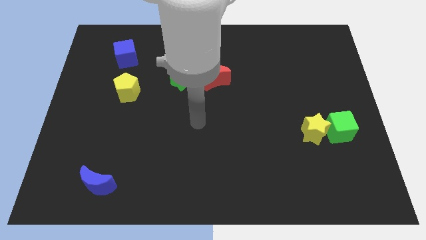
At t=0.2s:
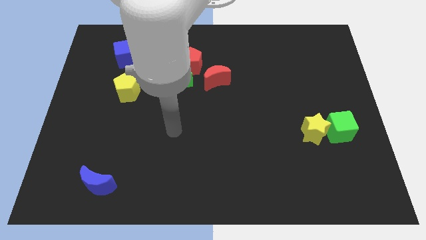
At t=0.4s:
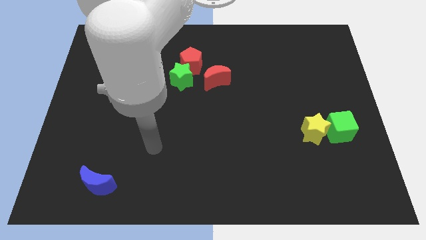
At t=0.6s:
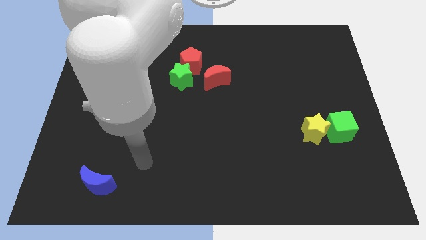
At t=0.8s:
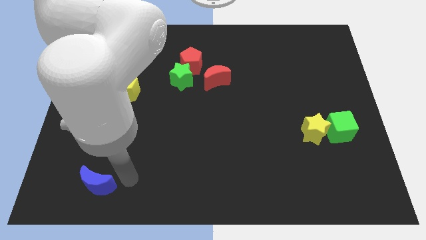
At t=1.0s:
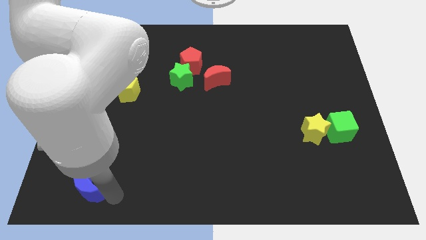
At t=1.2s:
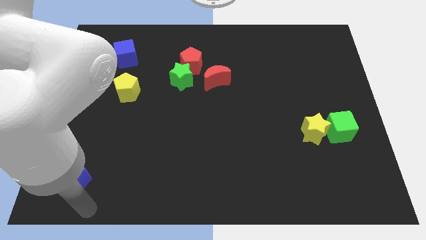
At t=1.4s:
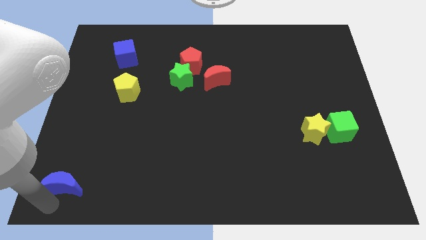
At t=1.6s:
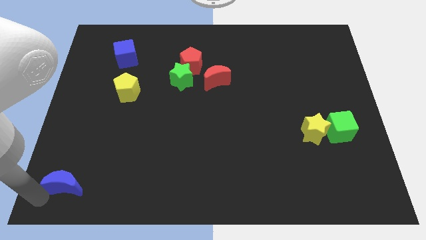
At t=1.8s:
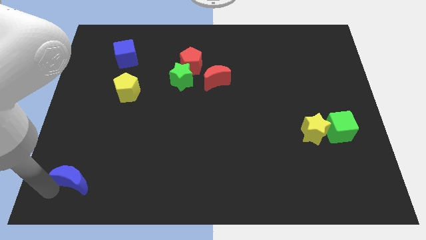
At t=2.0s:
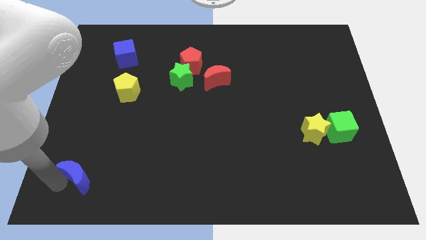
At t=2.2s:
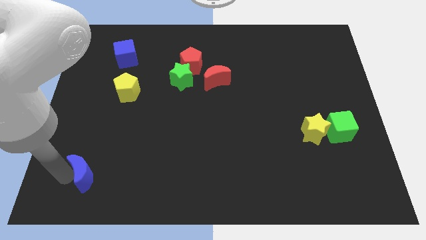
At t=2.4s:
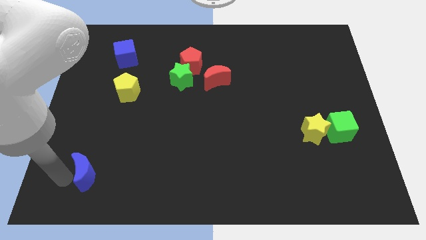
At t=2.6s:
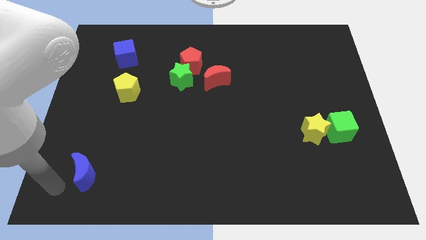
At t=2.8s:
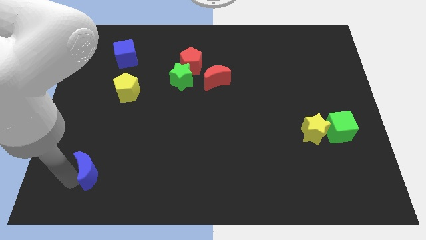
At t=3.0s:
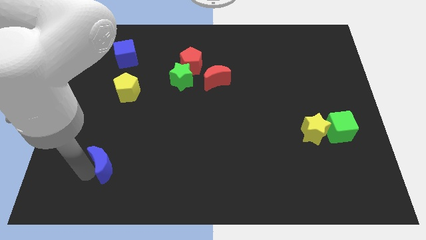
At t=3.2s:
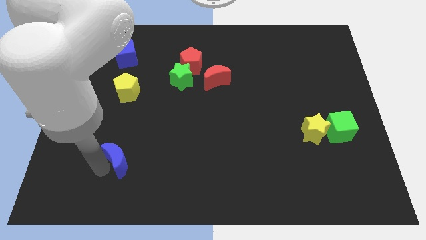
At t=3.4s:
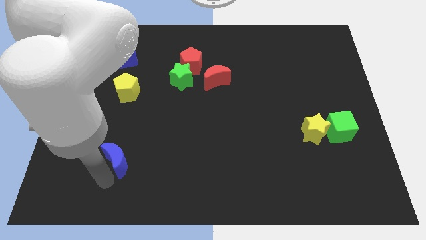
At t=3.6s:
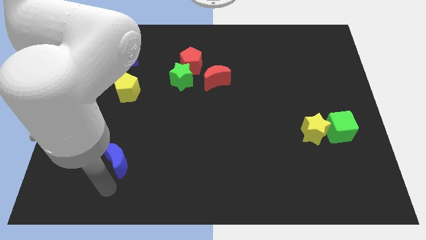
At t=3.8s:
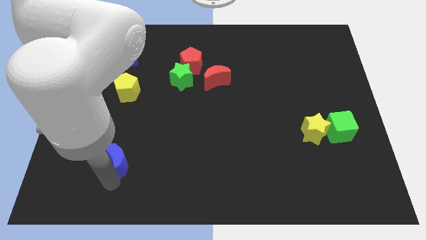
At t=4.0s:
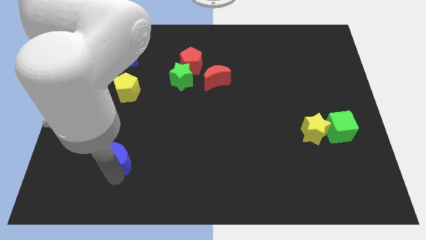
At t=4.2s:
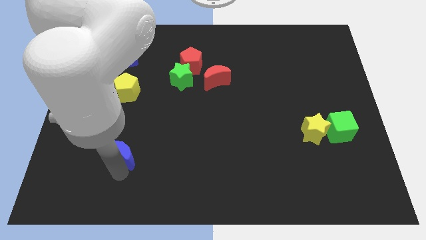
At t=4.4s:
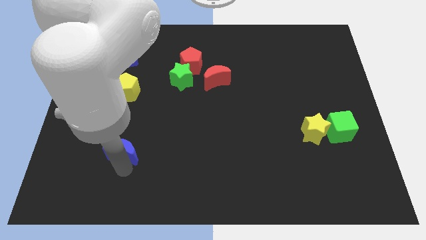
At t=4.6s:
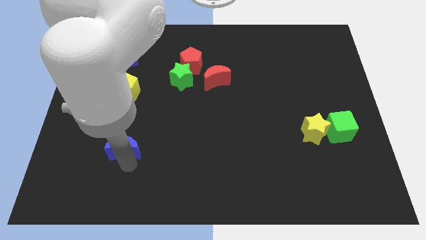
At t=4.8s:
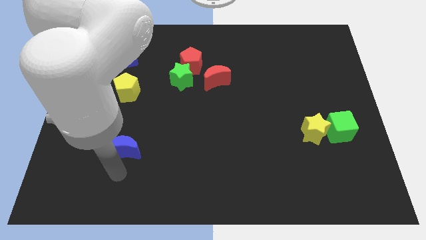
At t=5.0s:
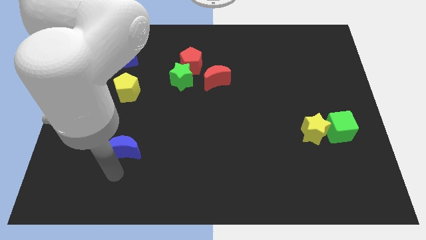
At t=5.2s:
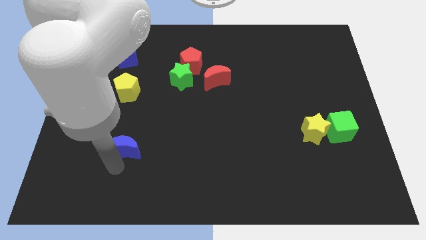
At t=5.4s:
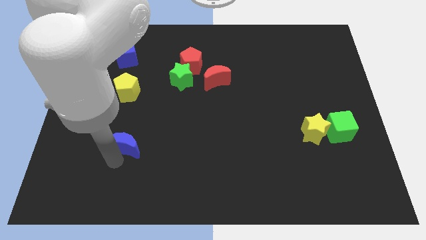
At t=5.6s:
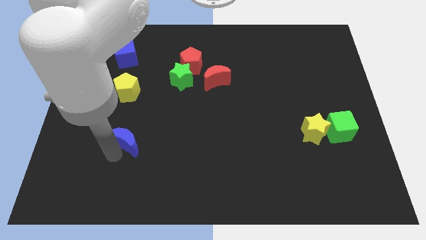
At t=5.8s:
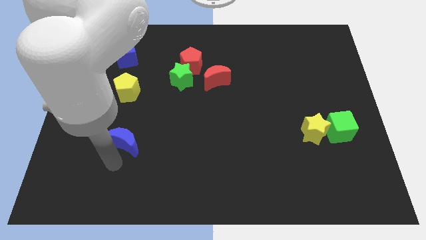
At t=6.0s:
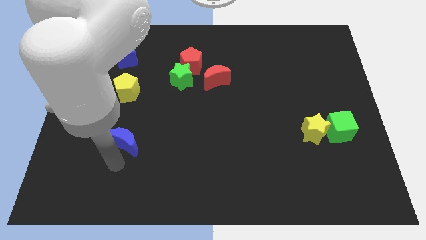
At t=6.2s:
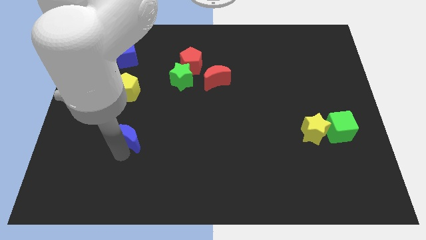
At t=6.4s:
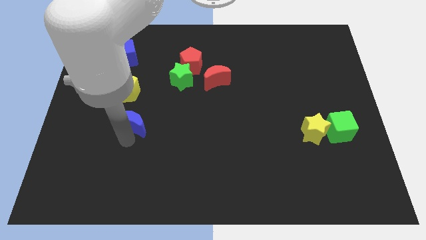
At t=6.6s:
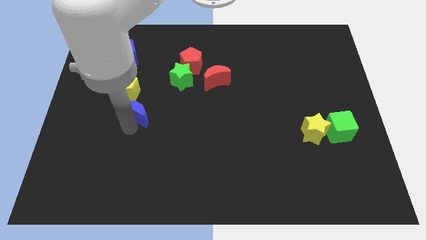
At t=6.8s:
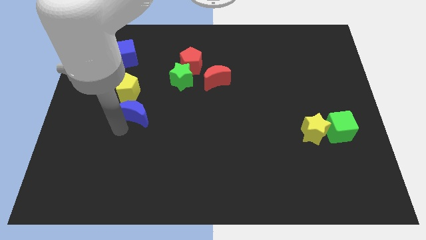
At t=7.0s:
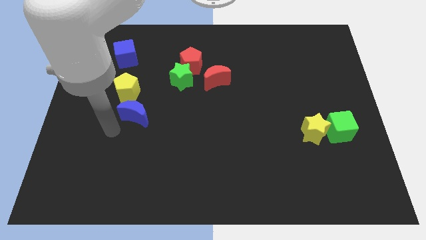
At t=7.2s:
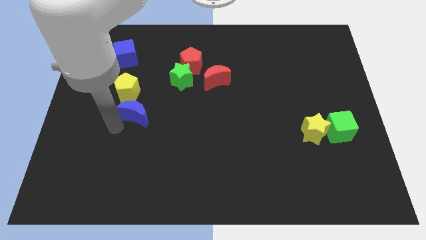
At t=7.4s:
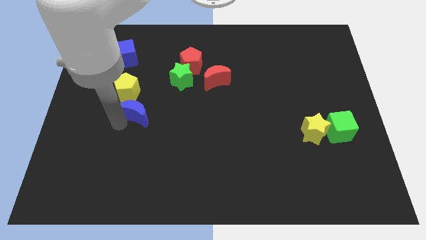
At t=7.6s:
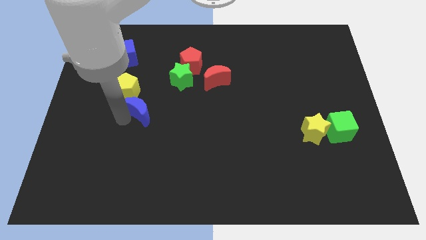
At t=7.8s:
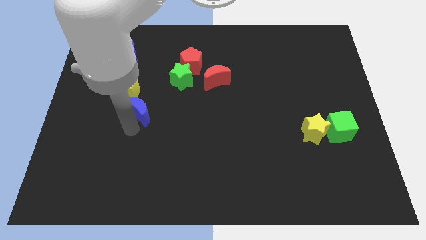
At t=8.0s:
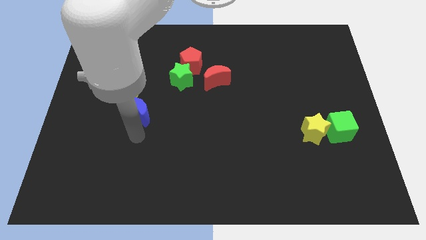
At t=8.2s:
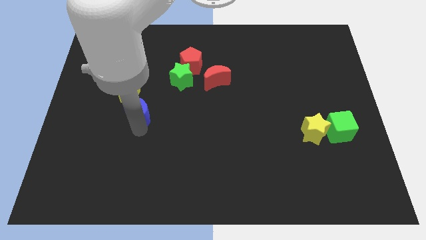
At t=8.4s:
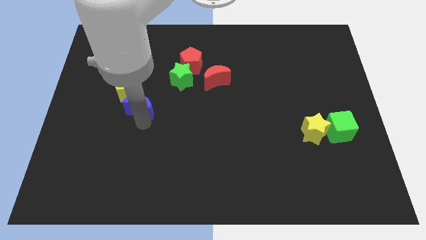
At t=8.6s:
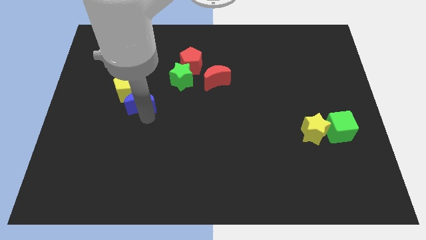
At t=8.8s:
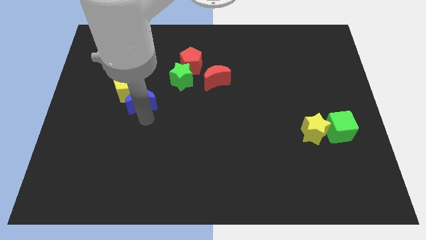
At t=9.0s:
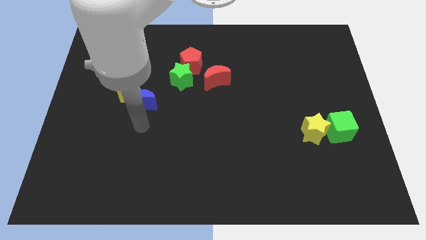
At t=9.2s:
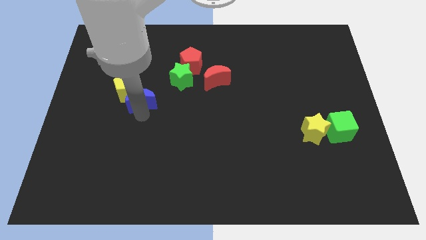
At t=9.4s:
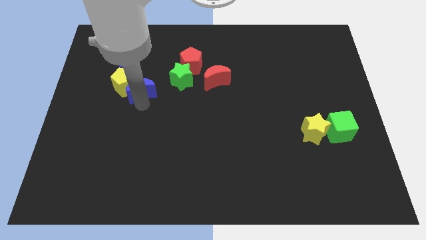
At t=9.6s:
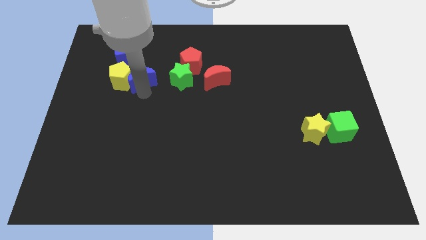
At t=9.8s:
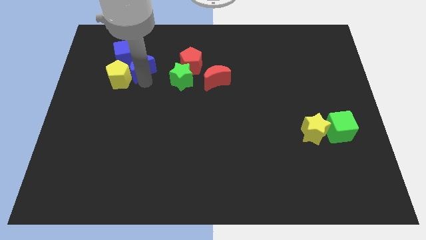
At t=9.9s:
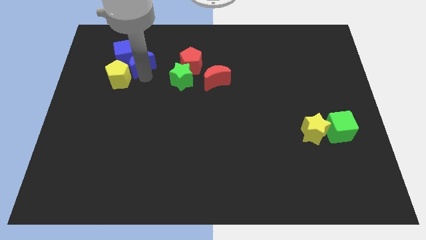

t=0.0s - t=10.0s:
put the blue moon close to the blue cube

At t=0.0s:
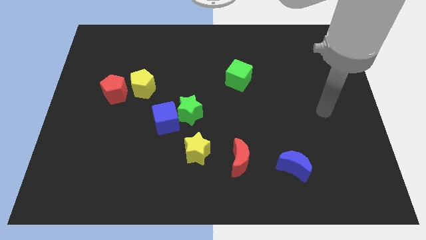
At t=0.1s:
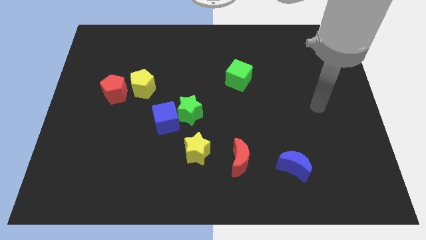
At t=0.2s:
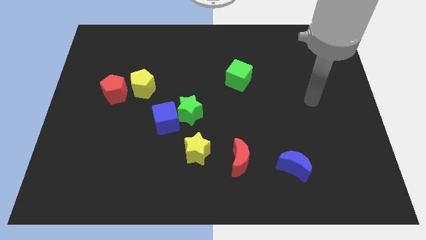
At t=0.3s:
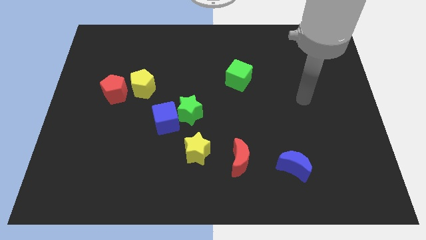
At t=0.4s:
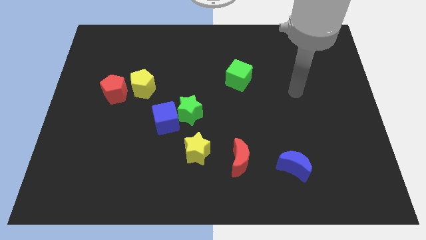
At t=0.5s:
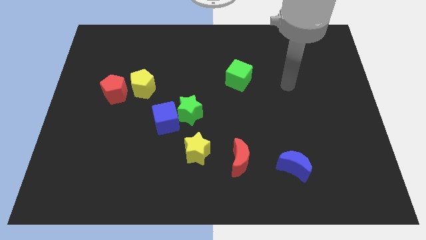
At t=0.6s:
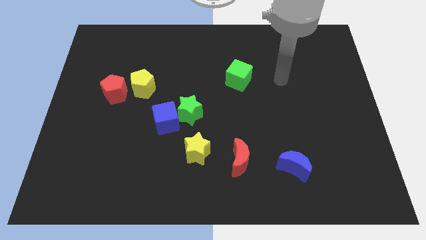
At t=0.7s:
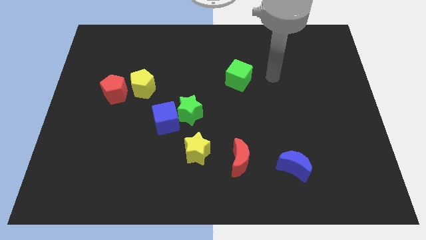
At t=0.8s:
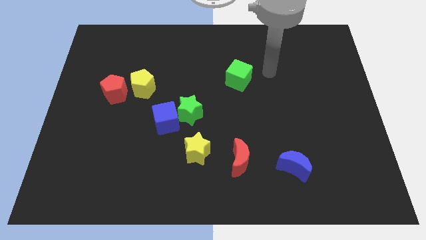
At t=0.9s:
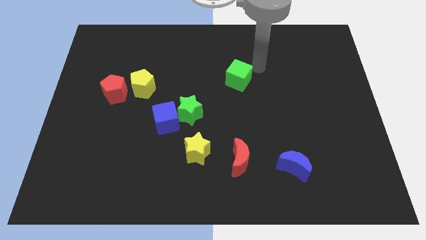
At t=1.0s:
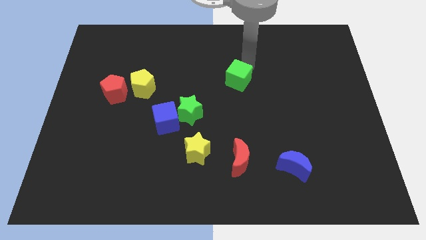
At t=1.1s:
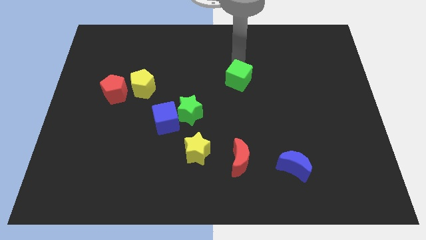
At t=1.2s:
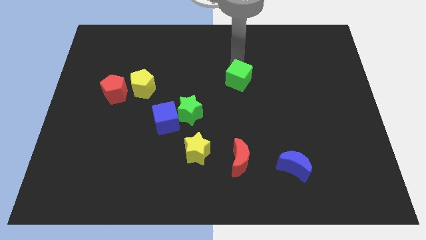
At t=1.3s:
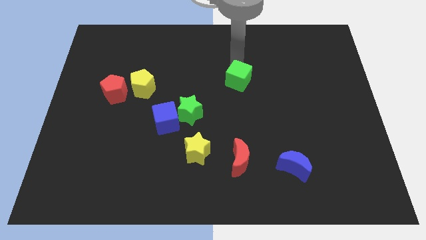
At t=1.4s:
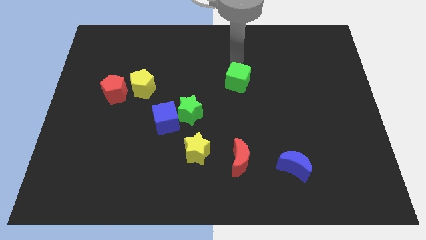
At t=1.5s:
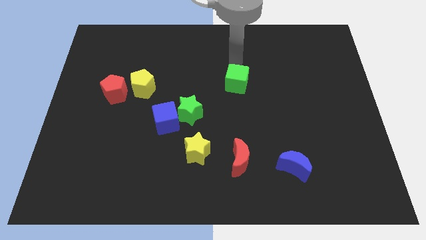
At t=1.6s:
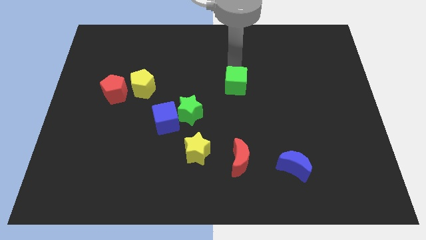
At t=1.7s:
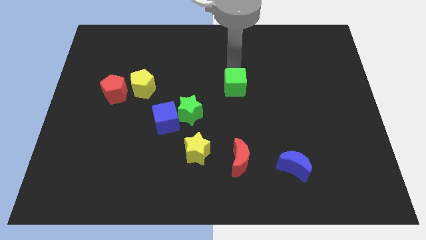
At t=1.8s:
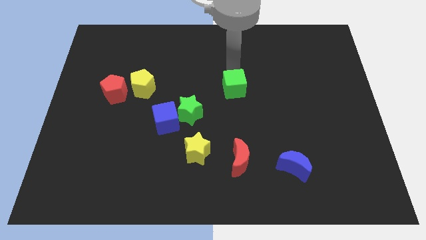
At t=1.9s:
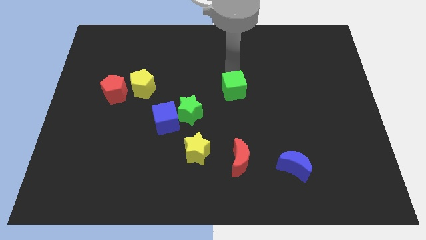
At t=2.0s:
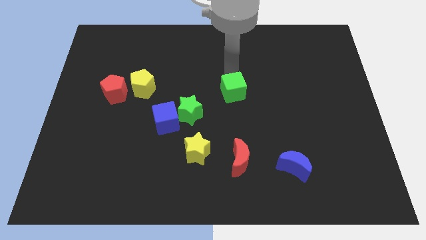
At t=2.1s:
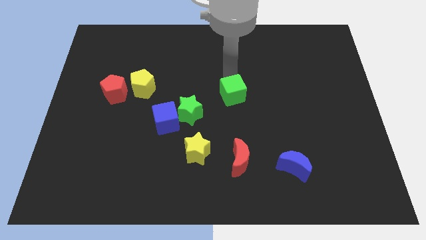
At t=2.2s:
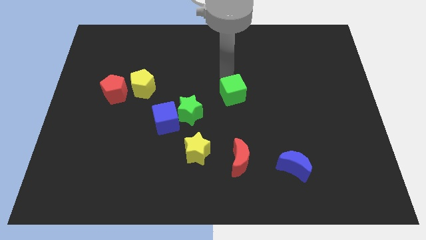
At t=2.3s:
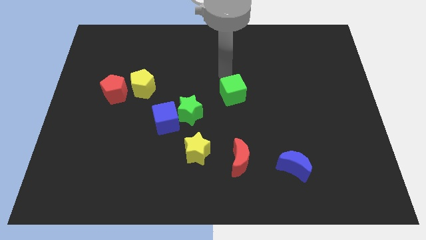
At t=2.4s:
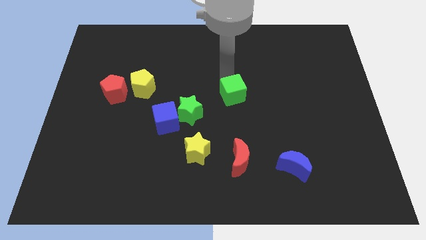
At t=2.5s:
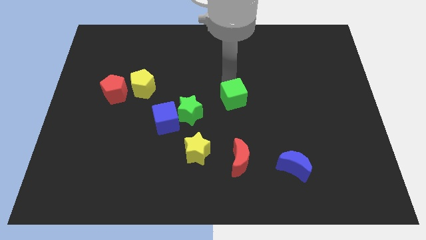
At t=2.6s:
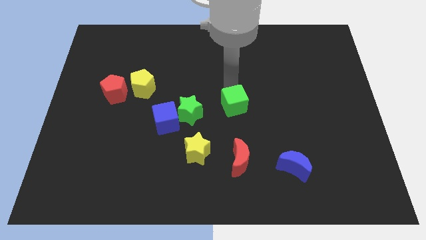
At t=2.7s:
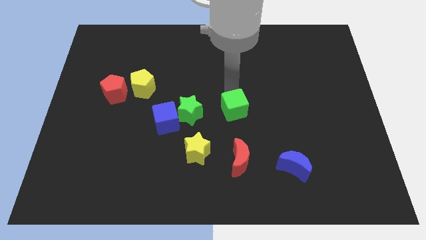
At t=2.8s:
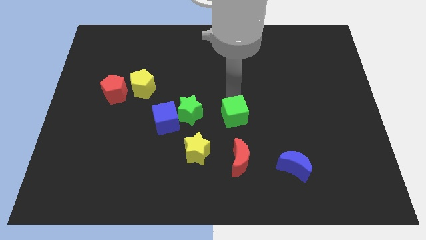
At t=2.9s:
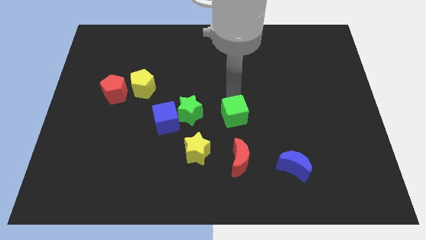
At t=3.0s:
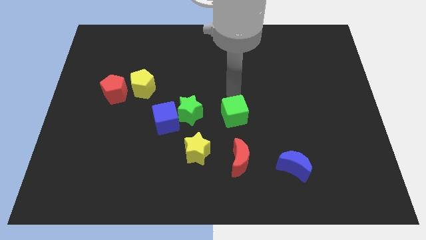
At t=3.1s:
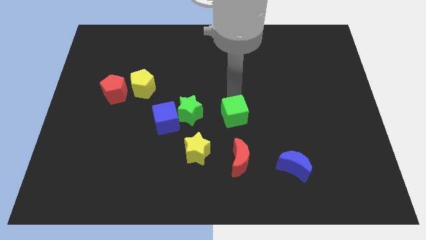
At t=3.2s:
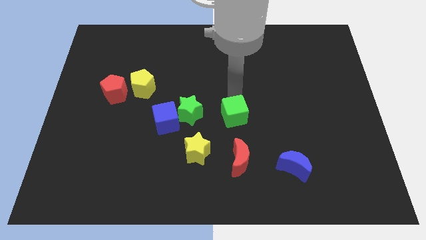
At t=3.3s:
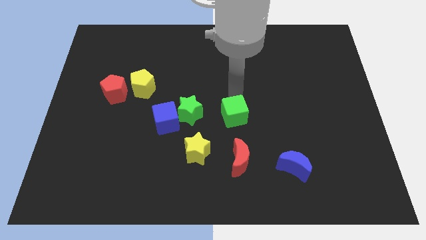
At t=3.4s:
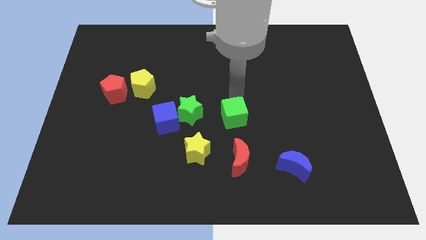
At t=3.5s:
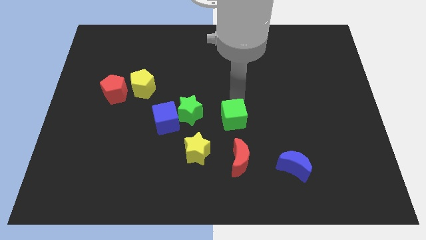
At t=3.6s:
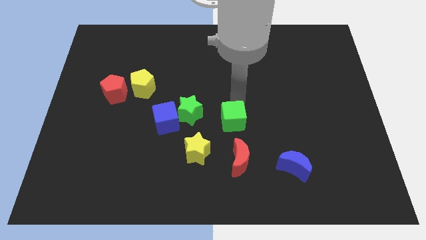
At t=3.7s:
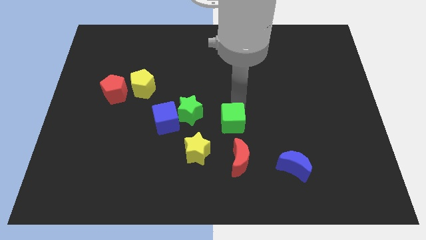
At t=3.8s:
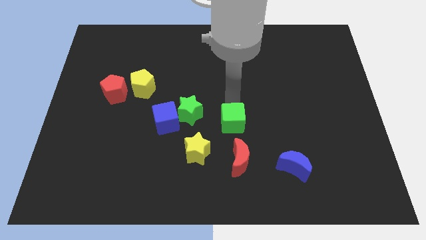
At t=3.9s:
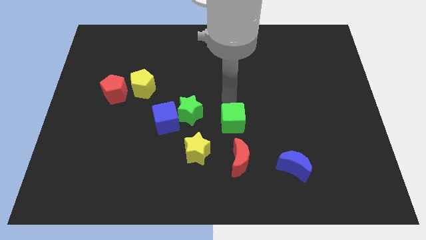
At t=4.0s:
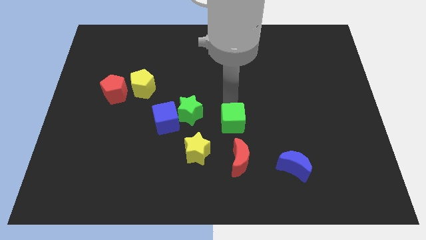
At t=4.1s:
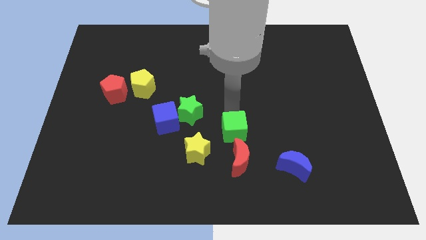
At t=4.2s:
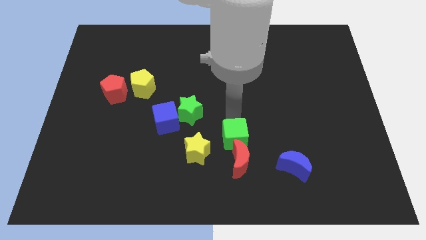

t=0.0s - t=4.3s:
move the green cube to the red moon
